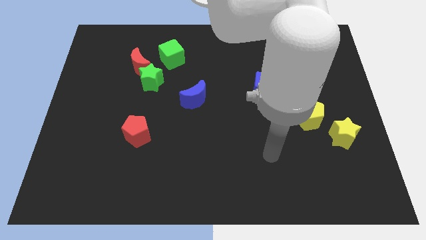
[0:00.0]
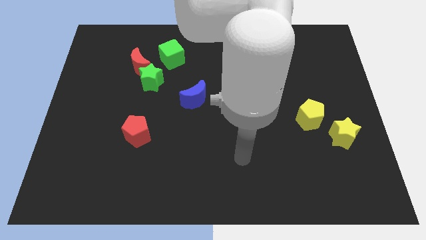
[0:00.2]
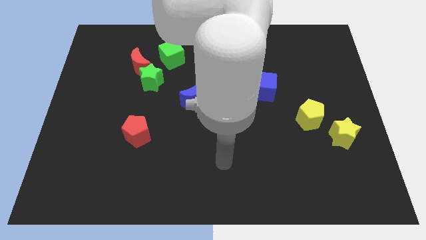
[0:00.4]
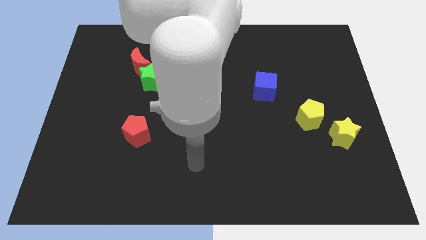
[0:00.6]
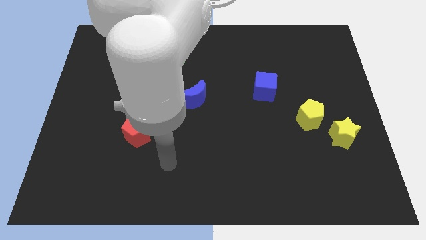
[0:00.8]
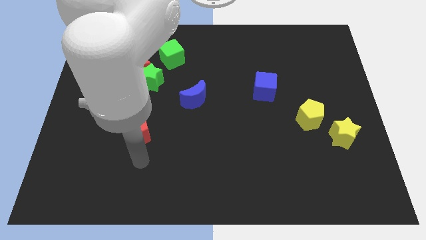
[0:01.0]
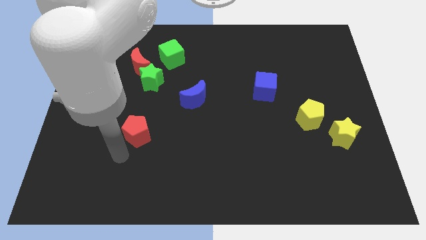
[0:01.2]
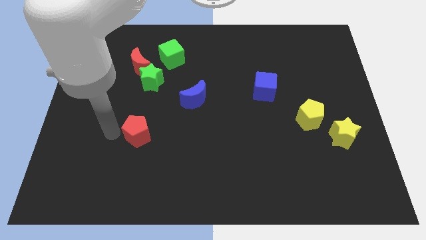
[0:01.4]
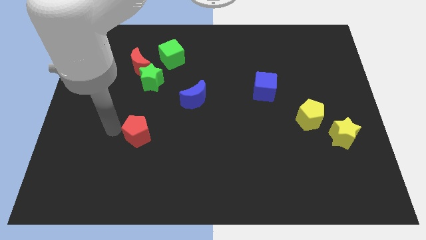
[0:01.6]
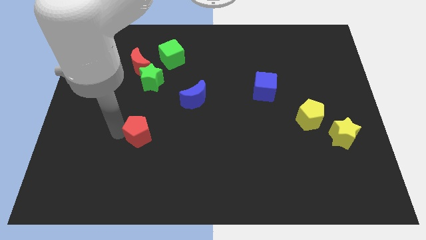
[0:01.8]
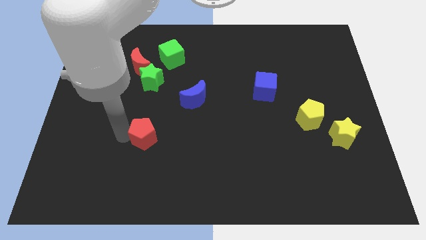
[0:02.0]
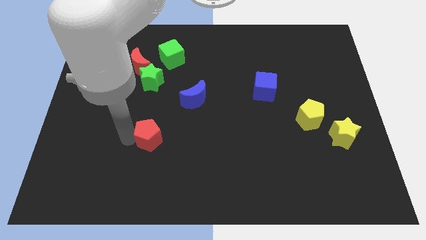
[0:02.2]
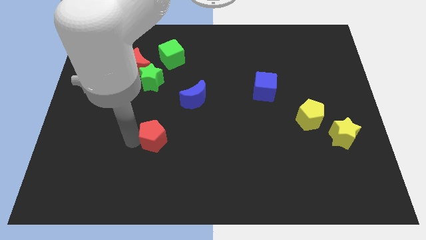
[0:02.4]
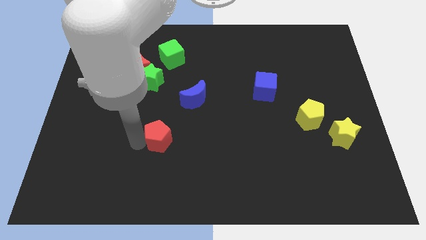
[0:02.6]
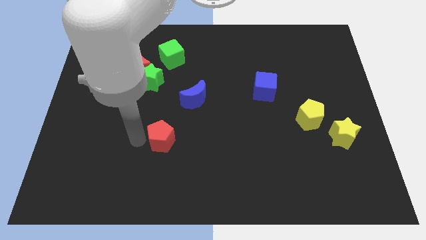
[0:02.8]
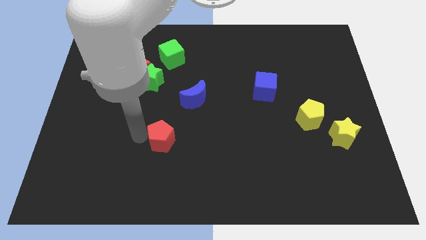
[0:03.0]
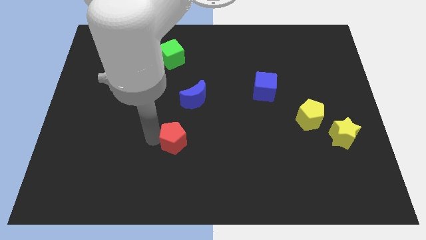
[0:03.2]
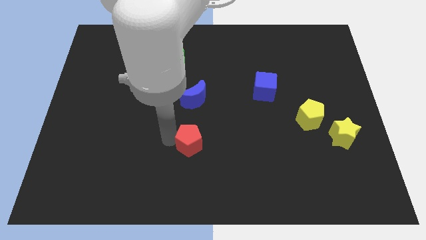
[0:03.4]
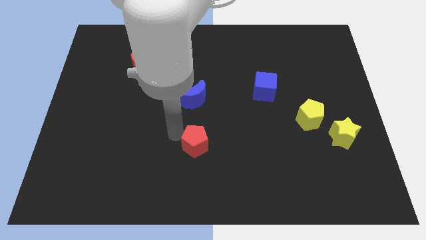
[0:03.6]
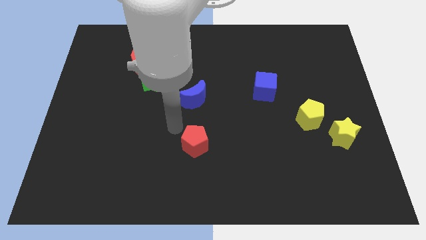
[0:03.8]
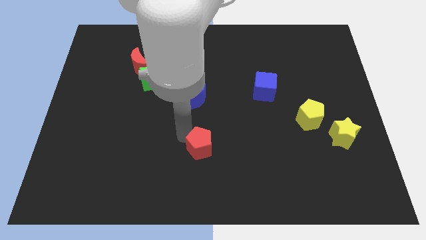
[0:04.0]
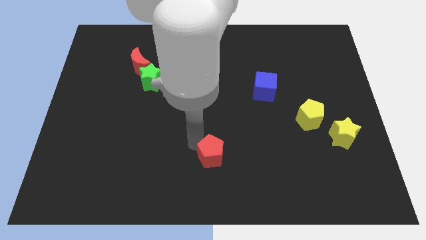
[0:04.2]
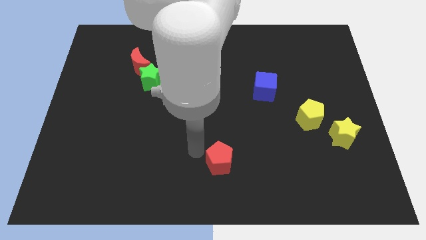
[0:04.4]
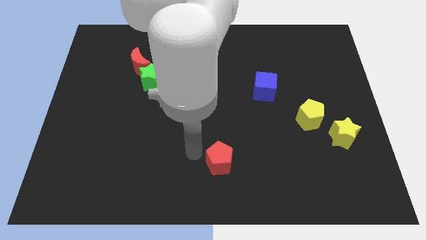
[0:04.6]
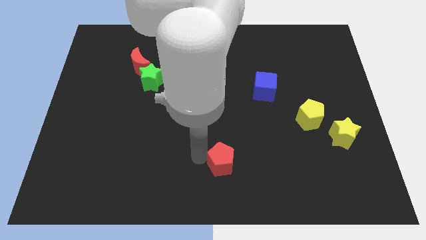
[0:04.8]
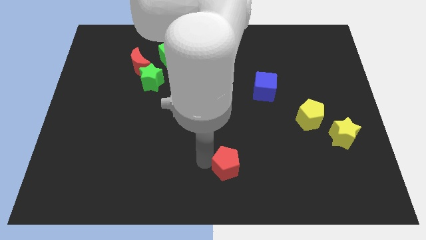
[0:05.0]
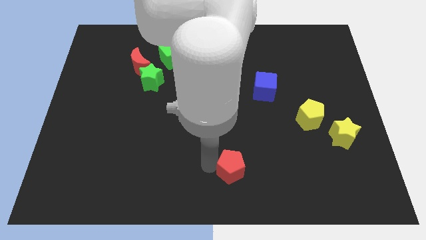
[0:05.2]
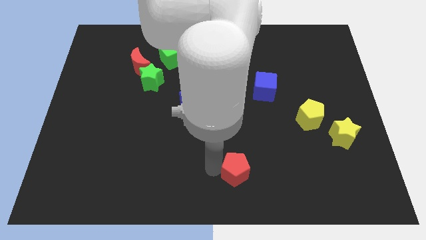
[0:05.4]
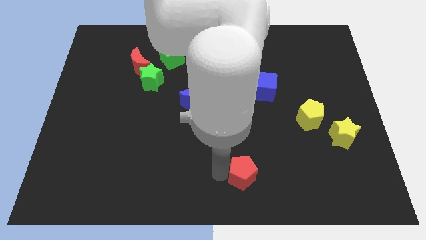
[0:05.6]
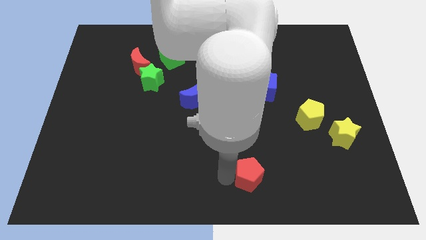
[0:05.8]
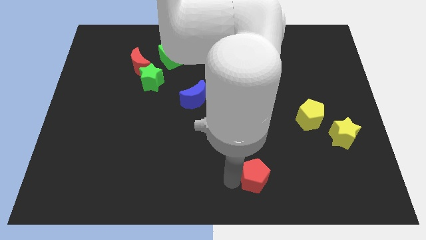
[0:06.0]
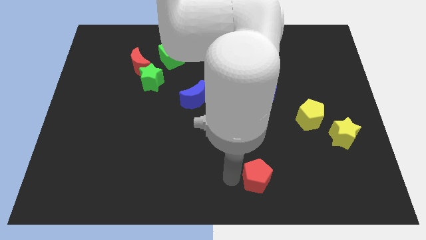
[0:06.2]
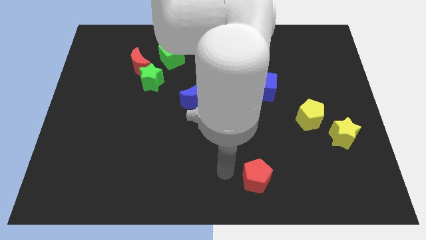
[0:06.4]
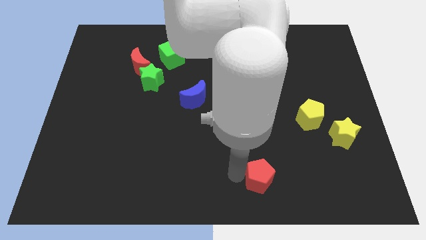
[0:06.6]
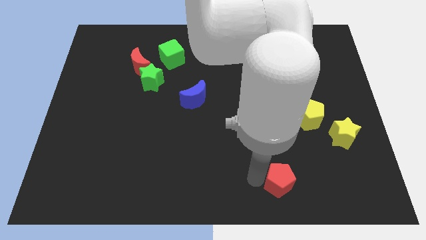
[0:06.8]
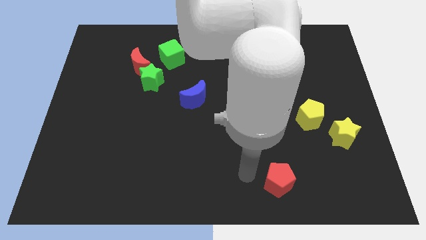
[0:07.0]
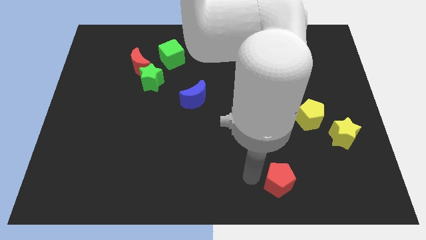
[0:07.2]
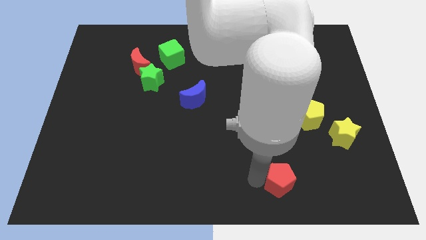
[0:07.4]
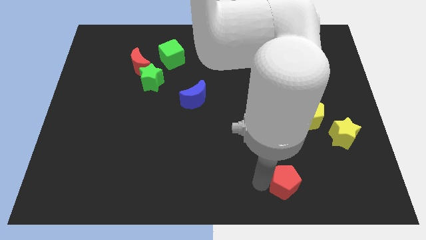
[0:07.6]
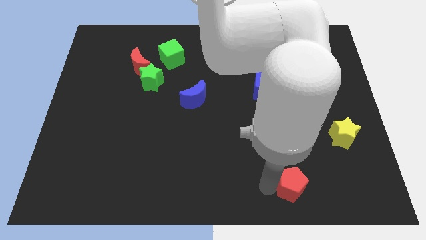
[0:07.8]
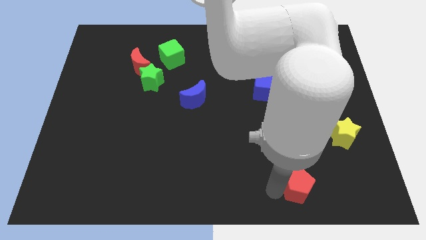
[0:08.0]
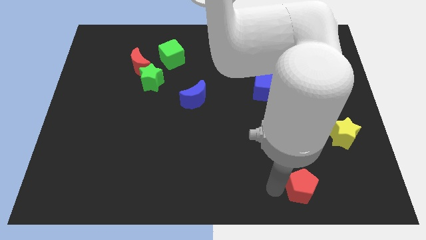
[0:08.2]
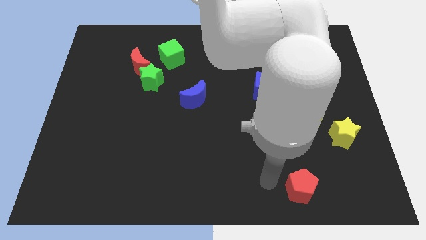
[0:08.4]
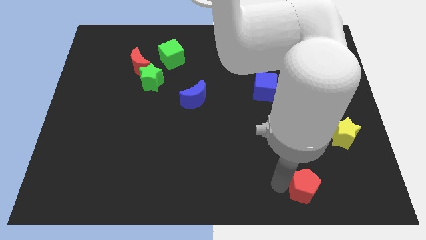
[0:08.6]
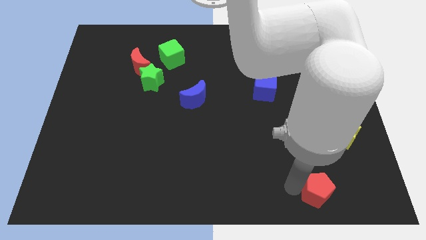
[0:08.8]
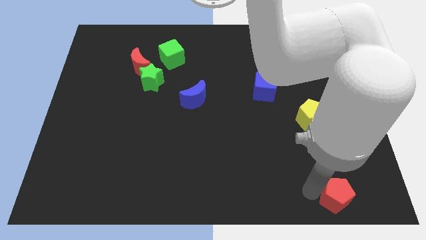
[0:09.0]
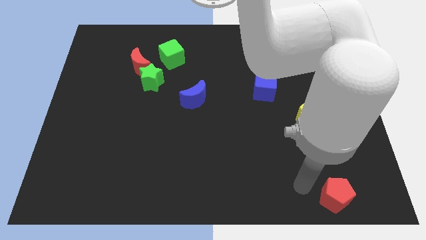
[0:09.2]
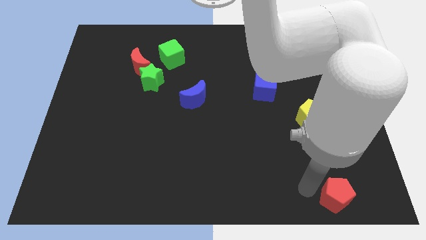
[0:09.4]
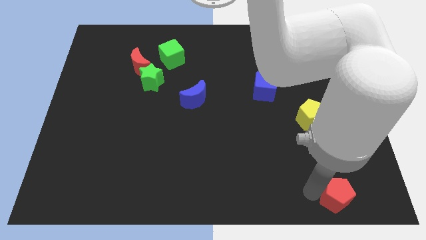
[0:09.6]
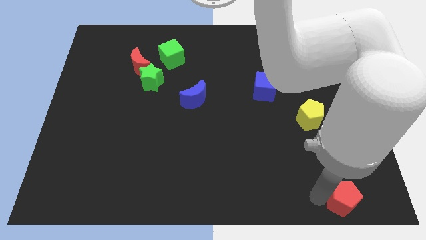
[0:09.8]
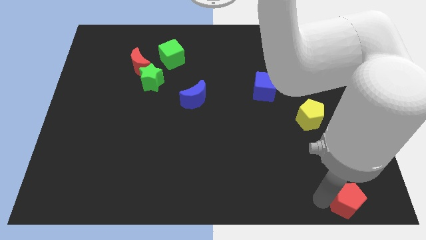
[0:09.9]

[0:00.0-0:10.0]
move the red pentagon to the lower right corner

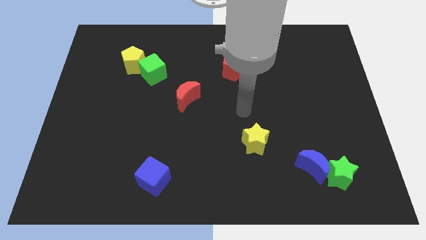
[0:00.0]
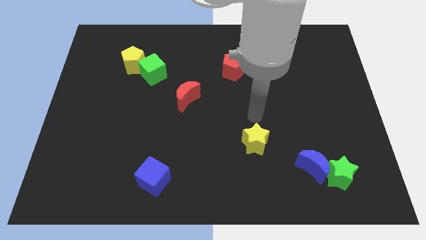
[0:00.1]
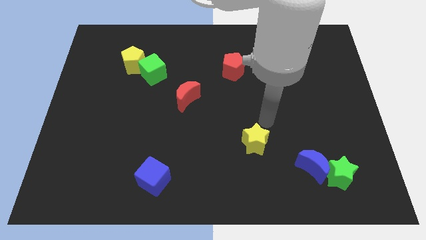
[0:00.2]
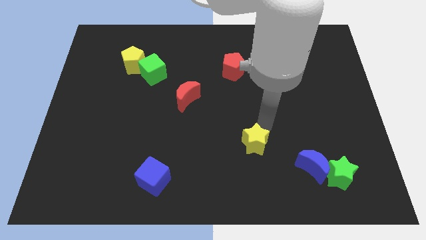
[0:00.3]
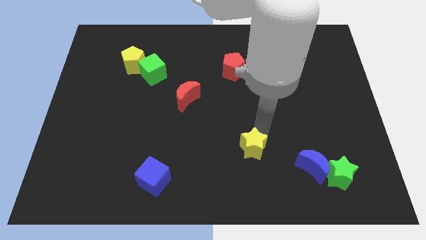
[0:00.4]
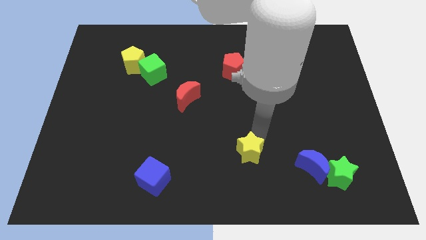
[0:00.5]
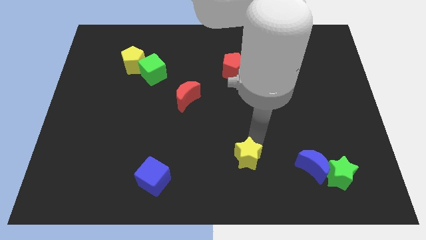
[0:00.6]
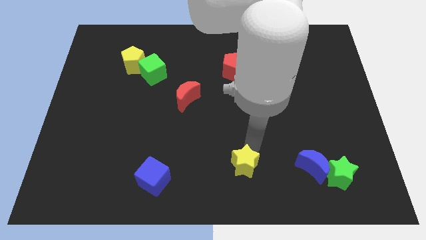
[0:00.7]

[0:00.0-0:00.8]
move the yellow star to the bottom side
